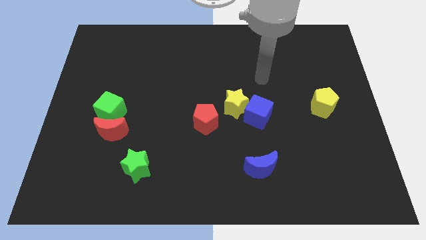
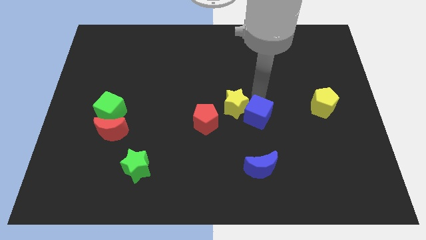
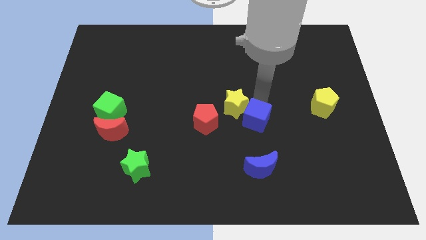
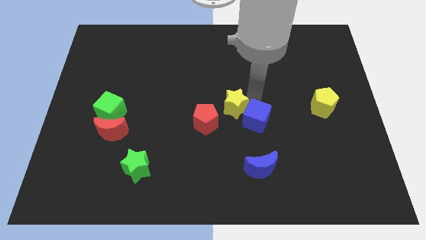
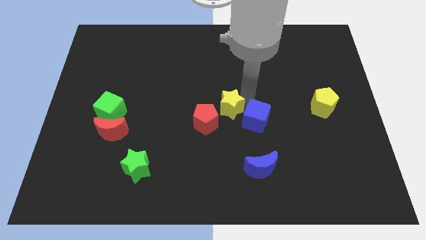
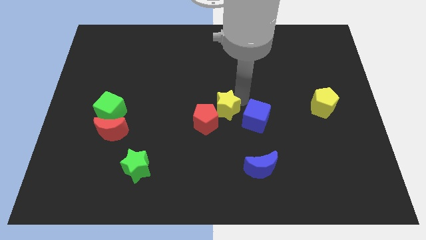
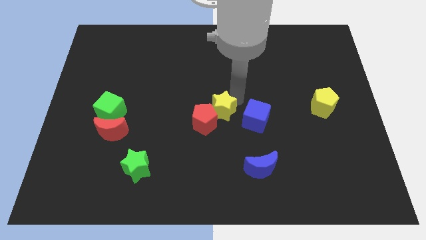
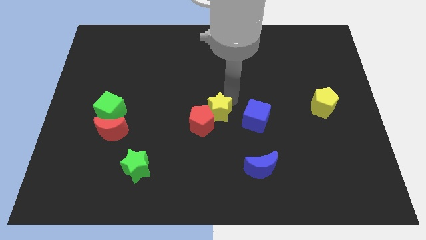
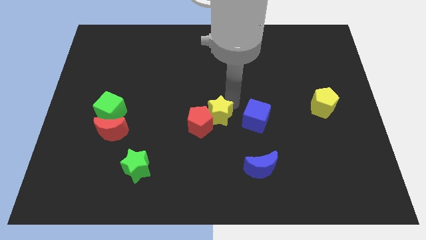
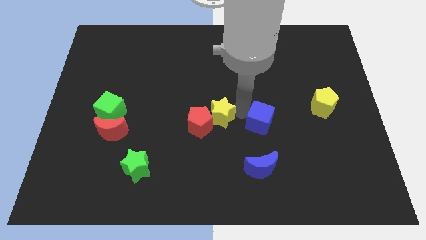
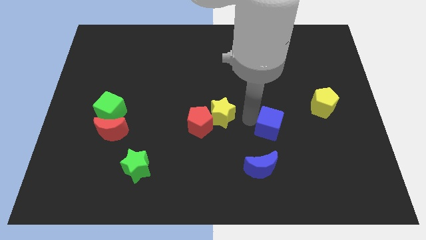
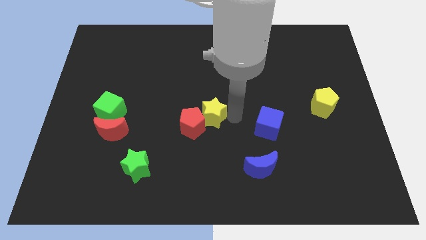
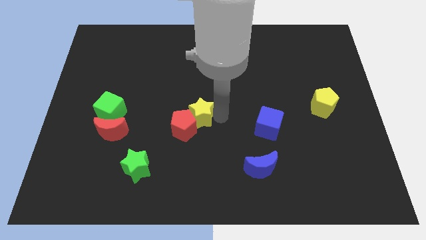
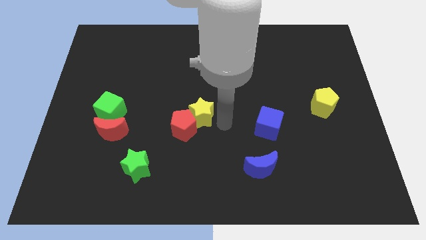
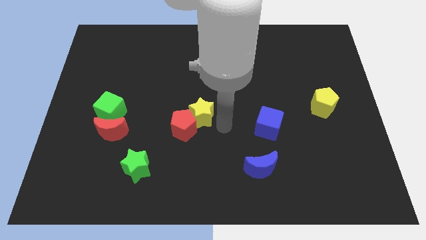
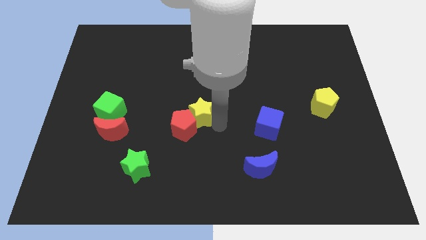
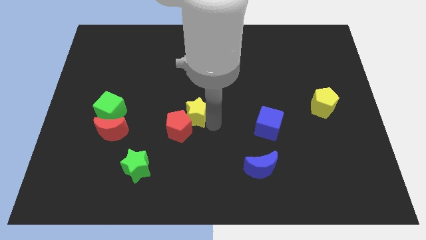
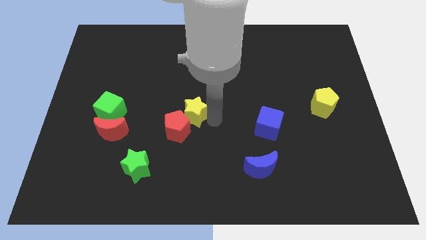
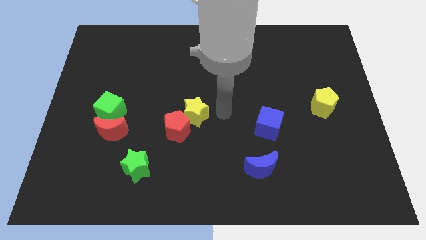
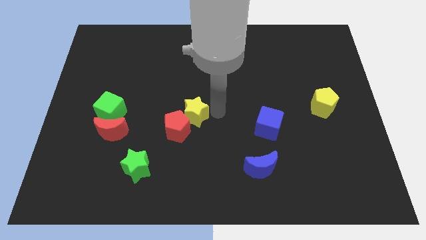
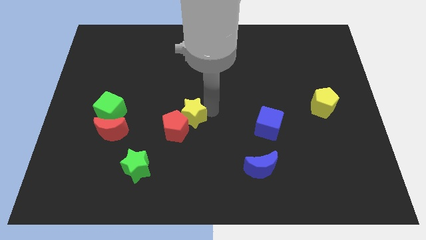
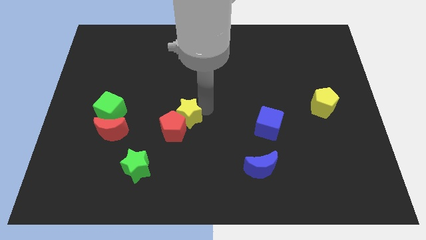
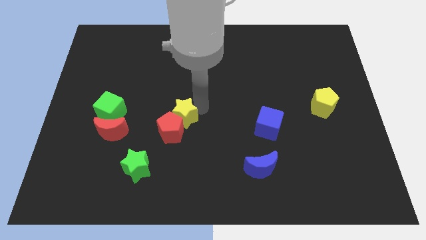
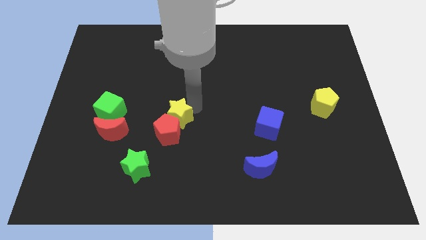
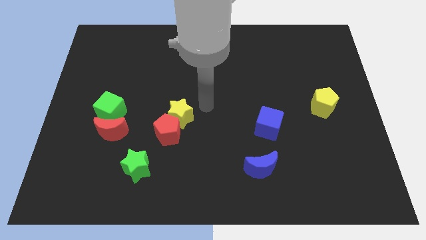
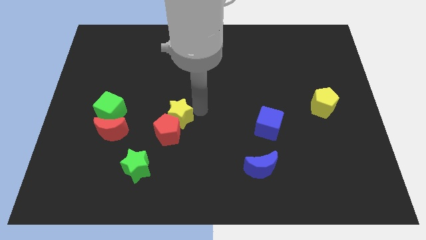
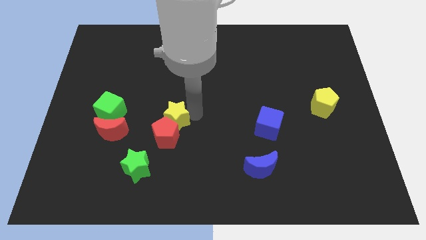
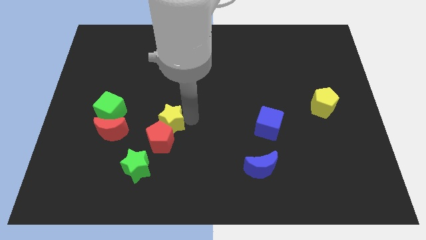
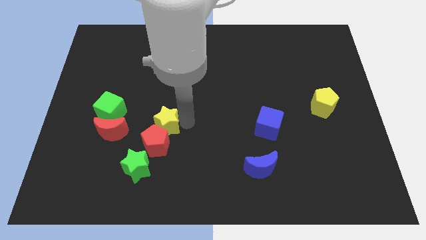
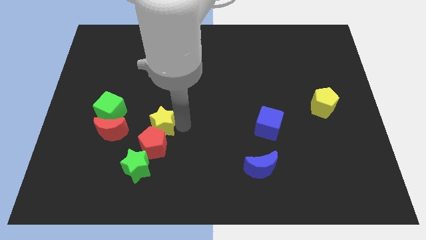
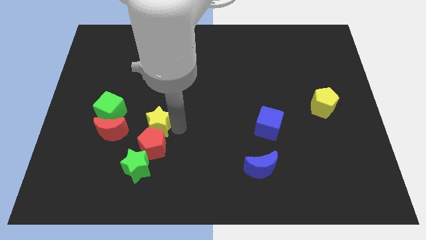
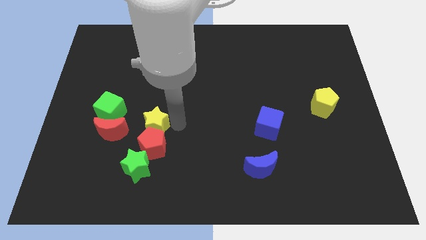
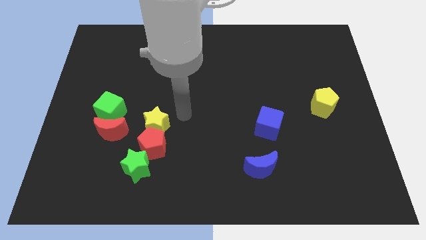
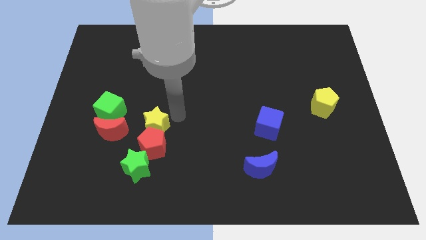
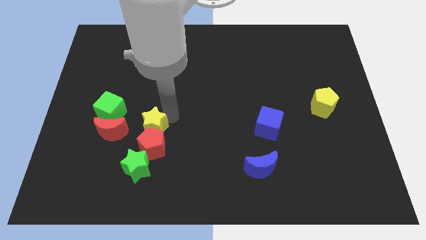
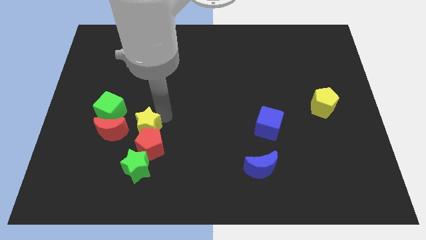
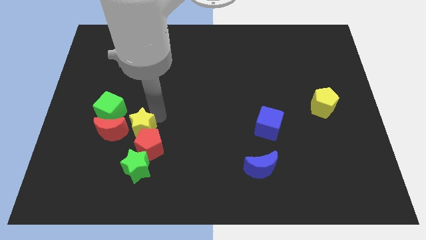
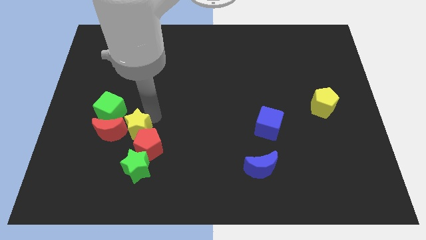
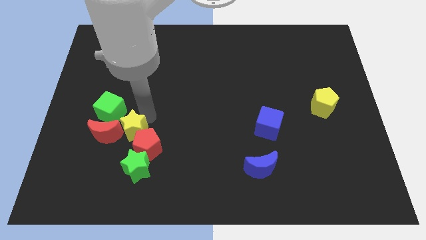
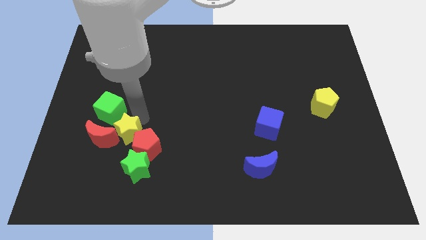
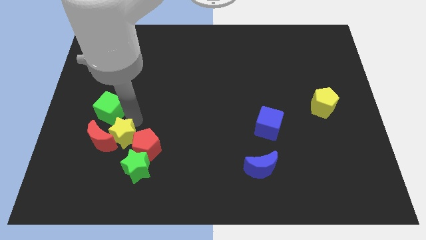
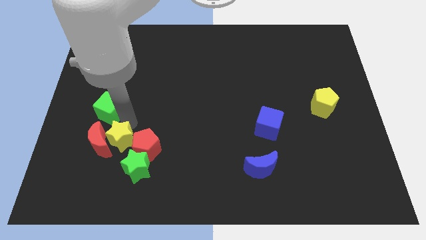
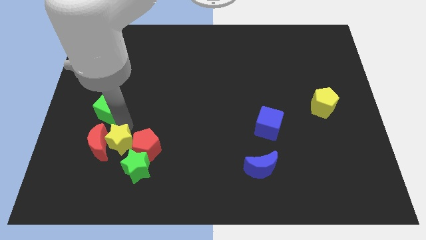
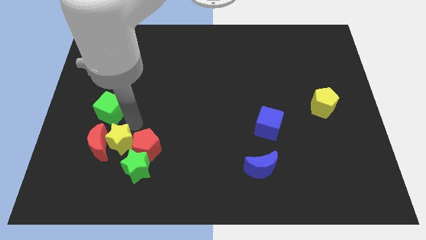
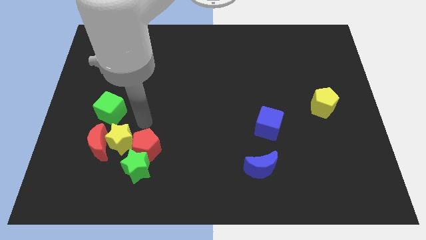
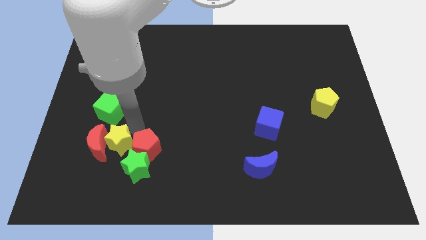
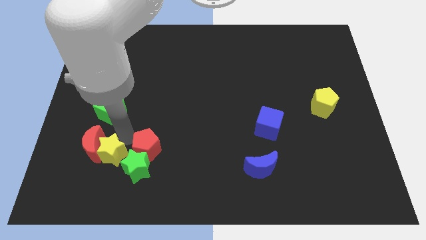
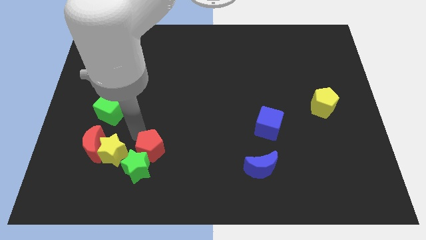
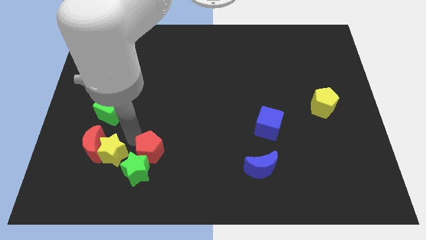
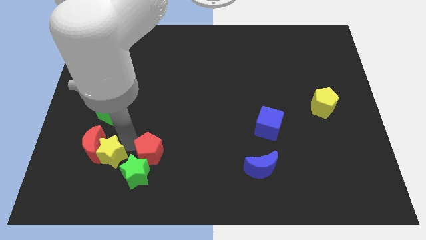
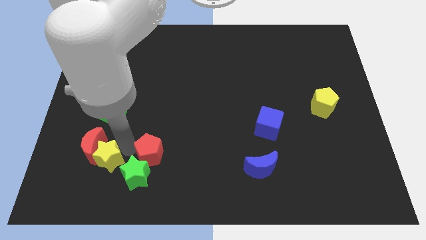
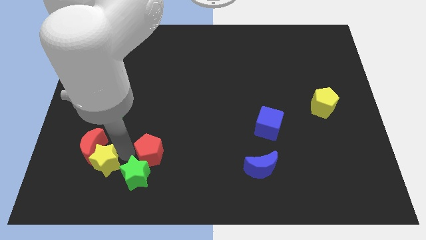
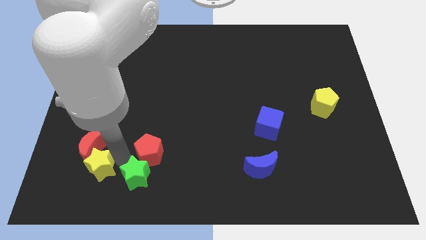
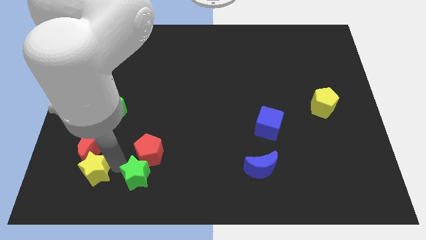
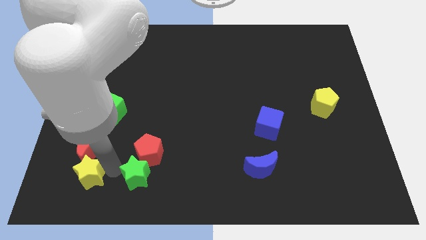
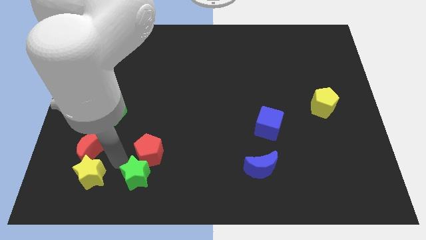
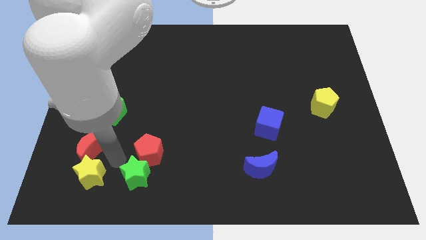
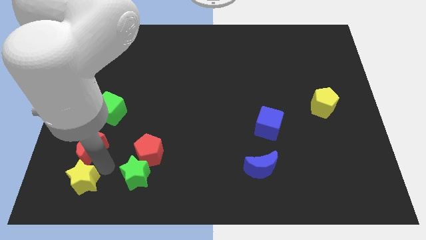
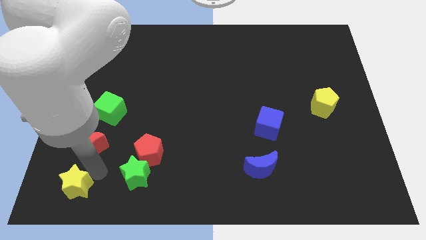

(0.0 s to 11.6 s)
put the yellow star to the bottom left corner

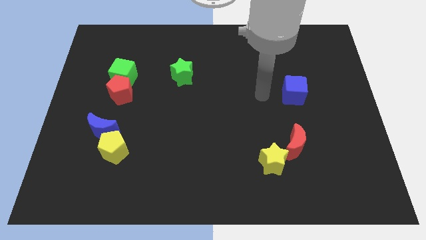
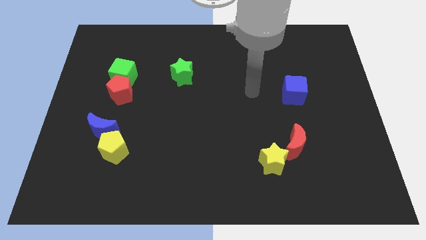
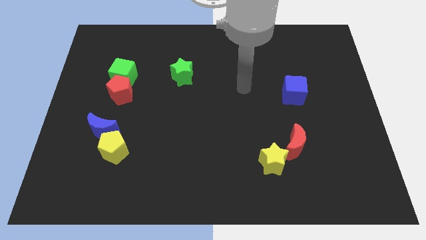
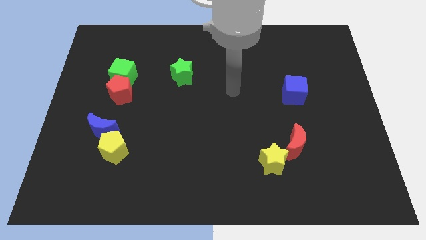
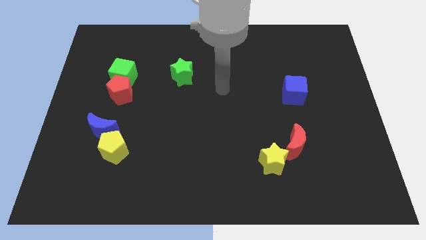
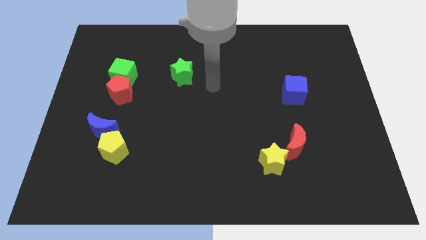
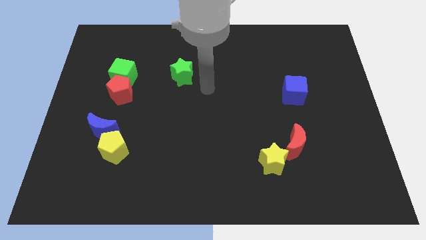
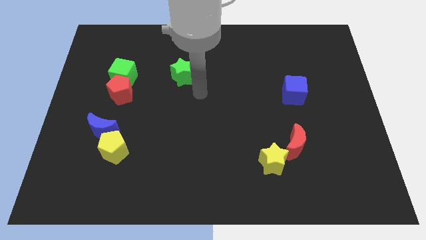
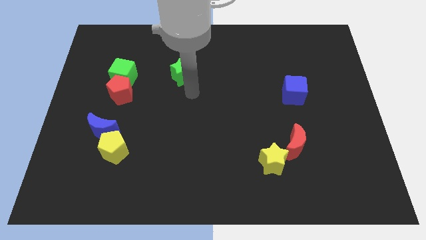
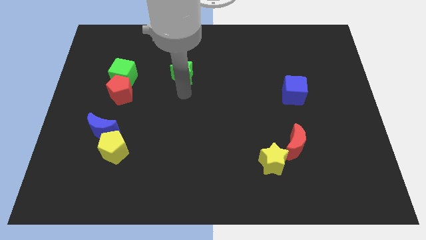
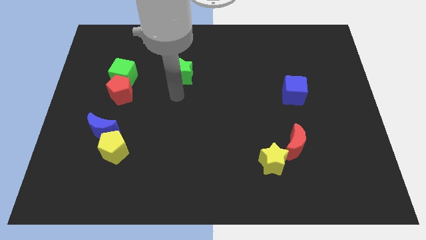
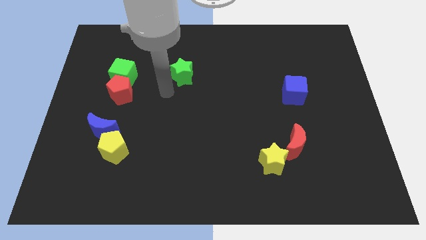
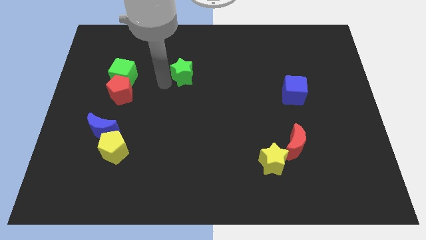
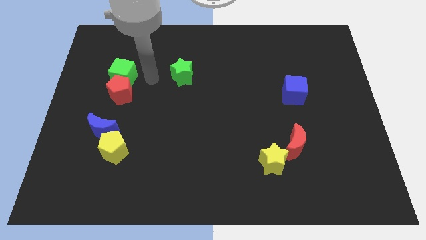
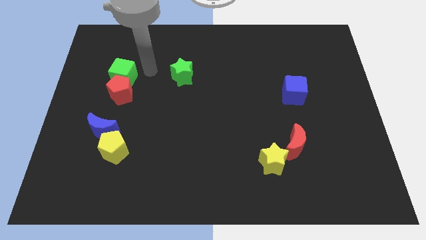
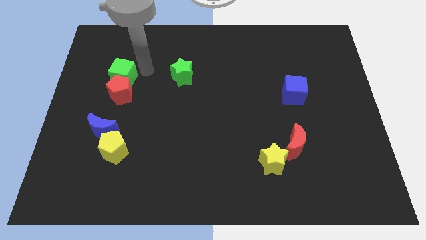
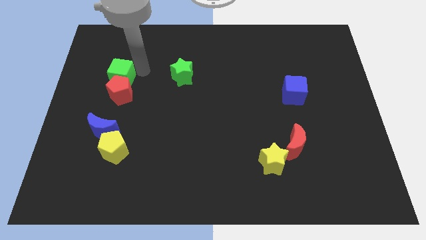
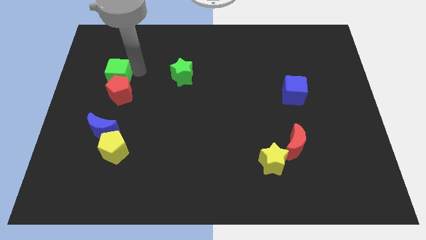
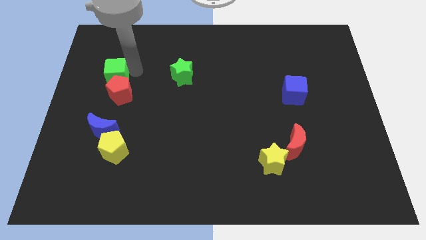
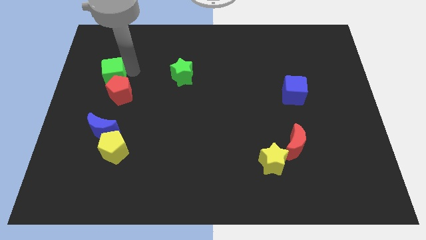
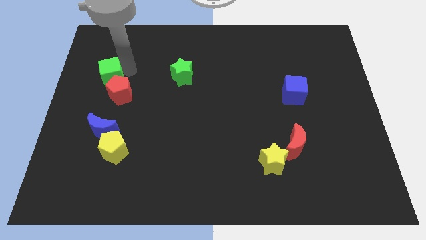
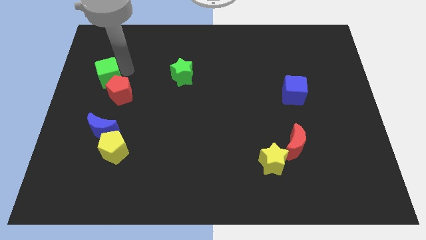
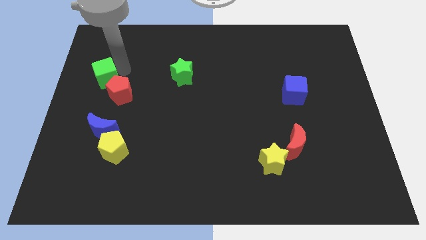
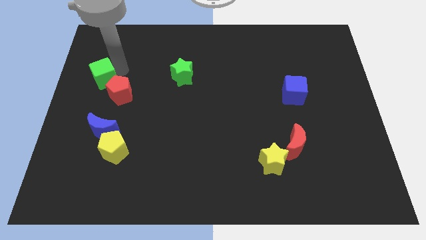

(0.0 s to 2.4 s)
slide the green cube to the left side of the board
